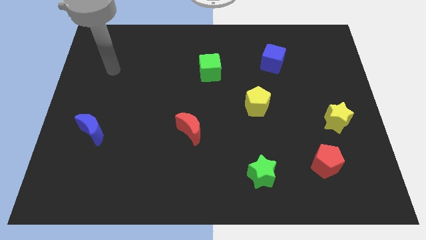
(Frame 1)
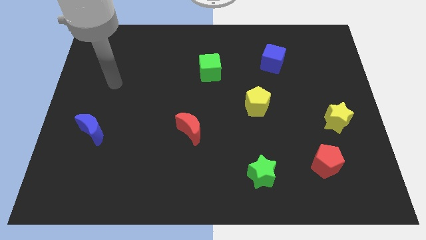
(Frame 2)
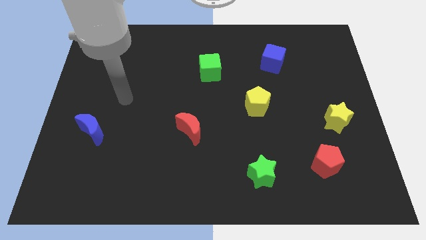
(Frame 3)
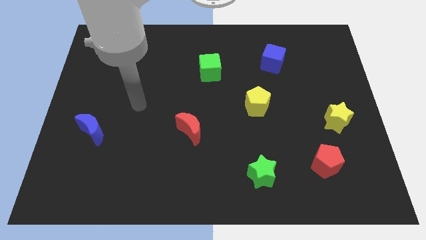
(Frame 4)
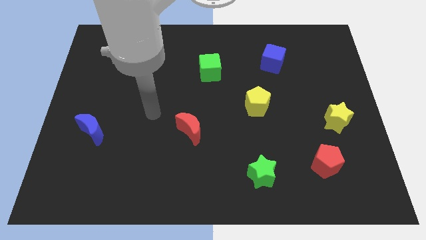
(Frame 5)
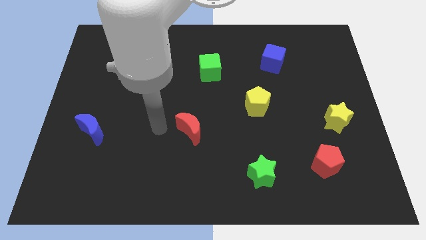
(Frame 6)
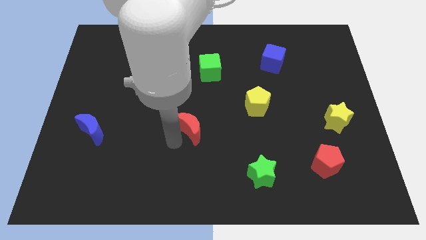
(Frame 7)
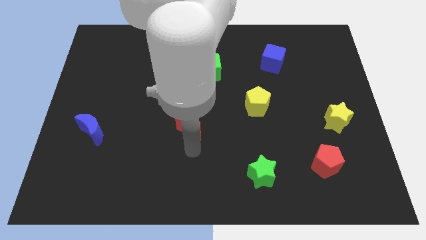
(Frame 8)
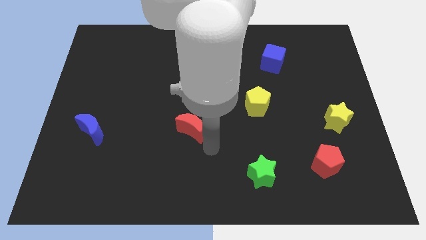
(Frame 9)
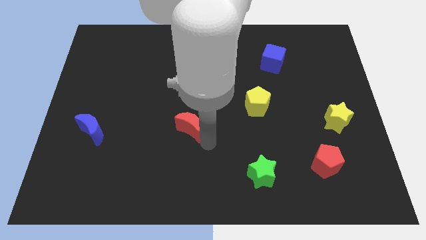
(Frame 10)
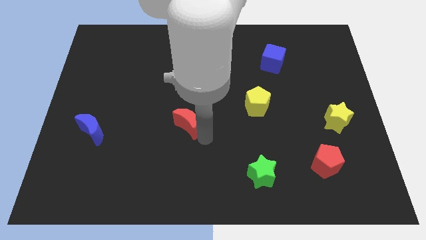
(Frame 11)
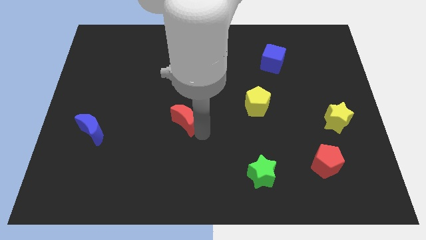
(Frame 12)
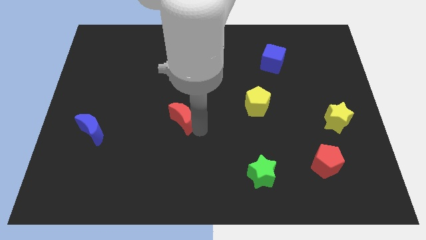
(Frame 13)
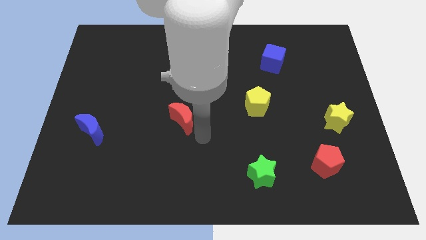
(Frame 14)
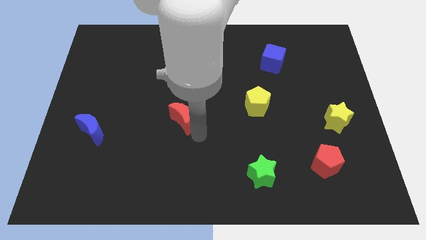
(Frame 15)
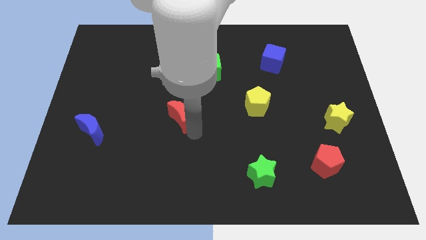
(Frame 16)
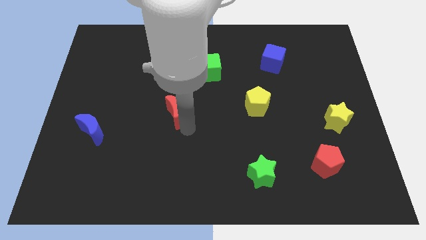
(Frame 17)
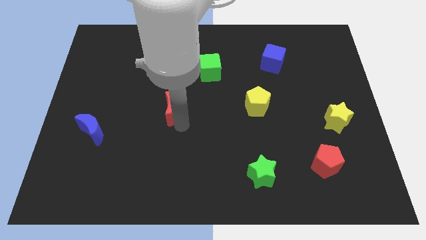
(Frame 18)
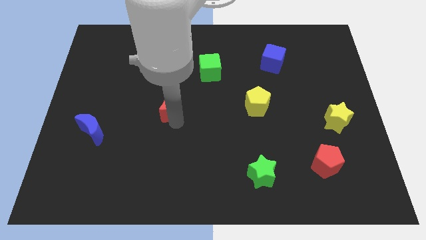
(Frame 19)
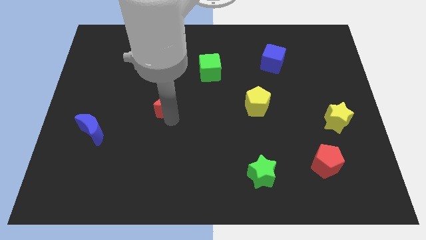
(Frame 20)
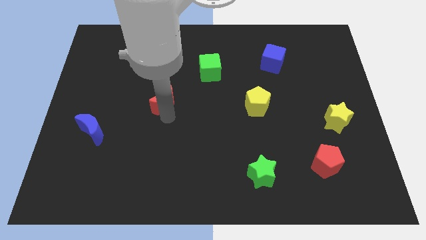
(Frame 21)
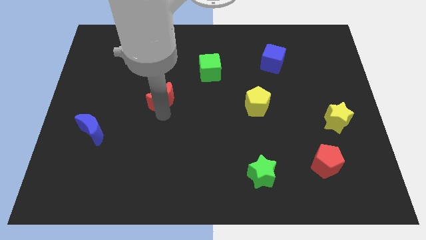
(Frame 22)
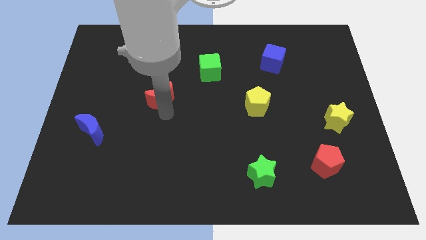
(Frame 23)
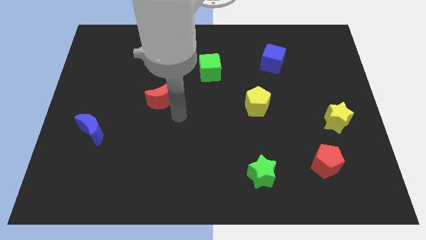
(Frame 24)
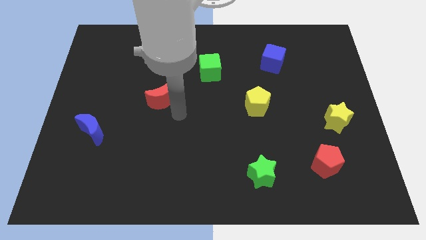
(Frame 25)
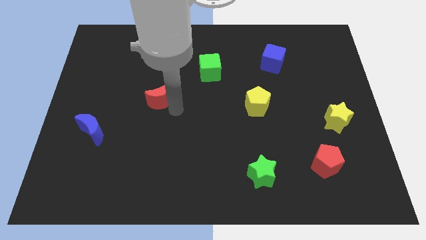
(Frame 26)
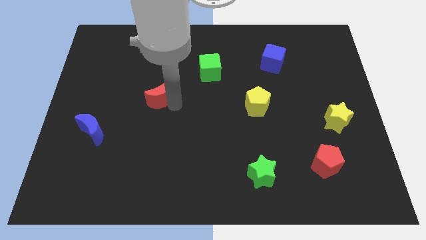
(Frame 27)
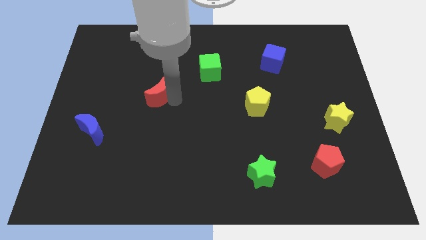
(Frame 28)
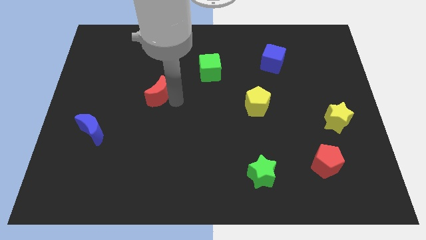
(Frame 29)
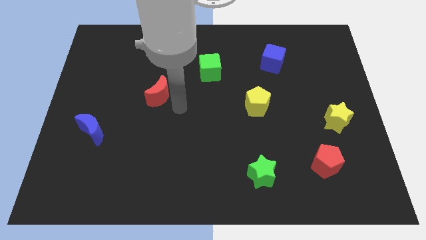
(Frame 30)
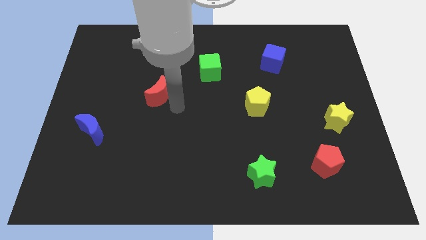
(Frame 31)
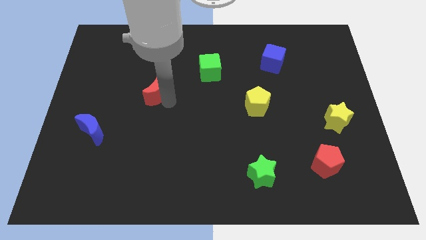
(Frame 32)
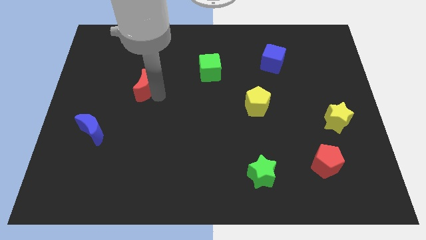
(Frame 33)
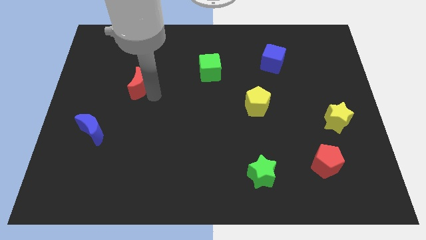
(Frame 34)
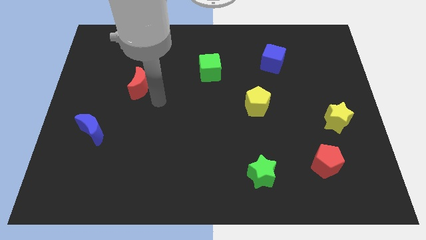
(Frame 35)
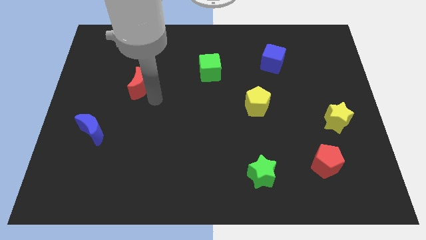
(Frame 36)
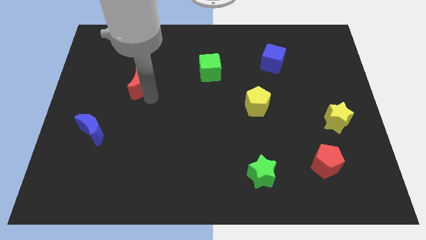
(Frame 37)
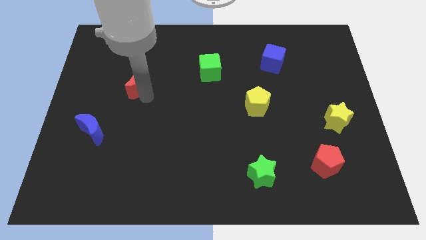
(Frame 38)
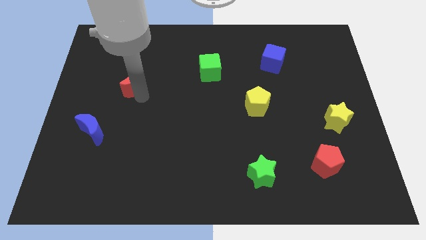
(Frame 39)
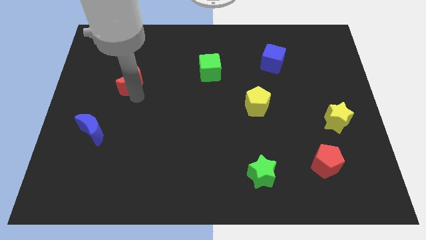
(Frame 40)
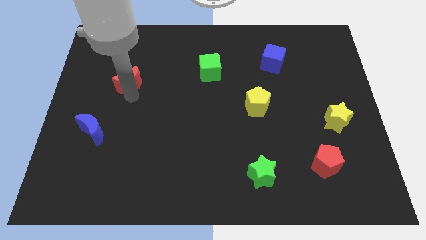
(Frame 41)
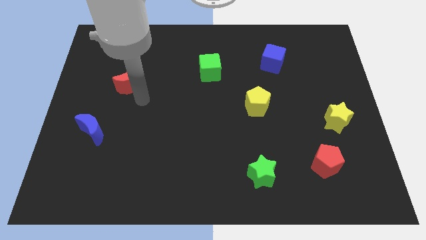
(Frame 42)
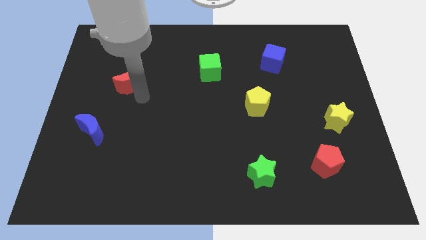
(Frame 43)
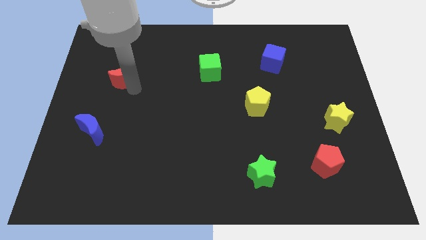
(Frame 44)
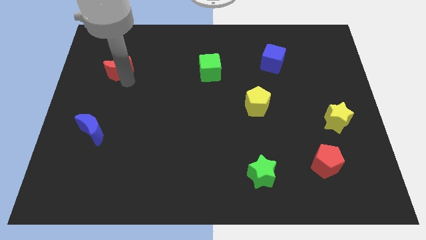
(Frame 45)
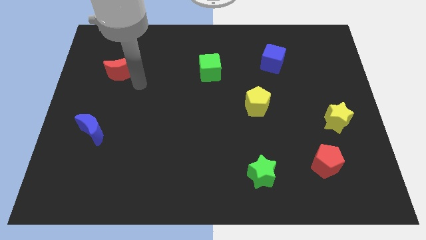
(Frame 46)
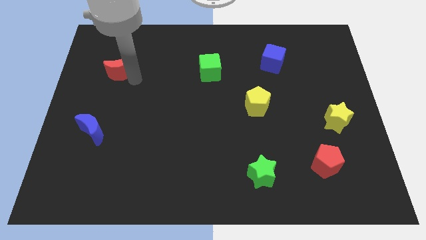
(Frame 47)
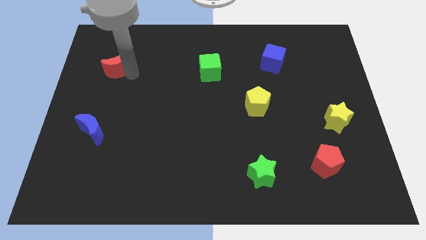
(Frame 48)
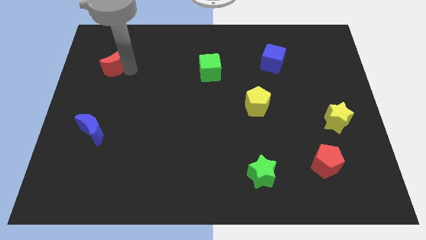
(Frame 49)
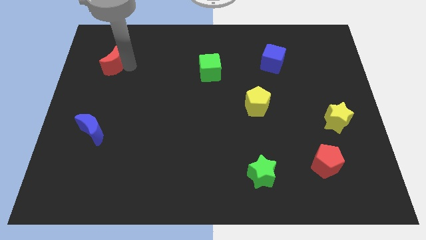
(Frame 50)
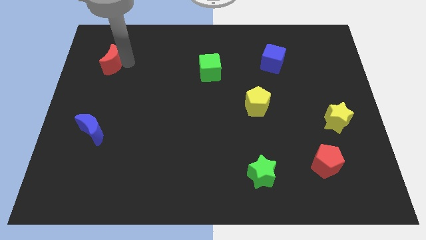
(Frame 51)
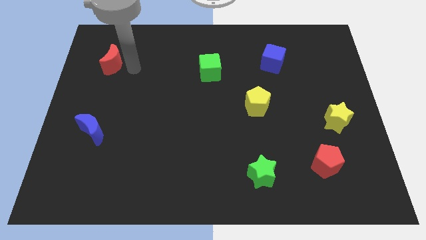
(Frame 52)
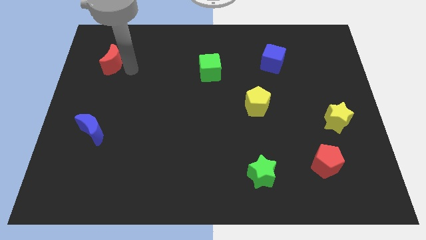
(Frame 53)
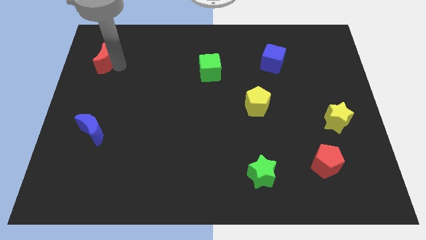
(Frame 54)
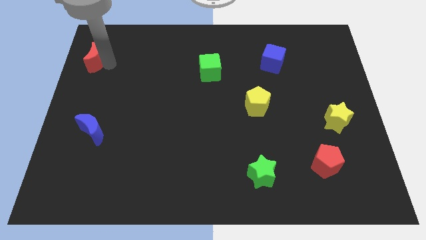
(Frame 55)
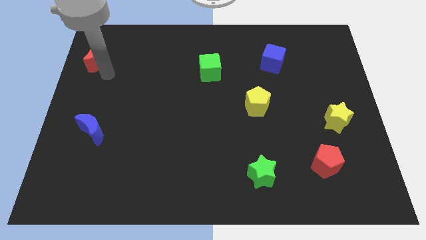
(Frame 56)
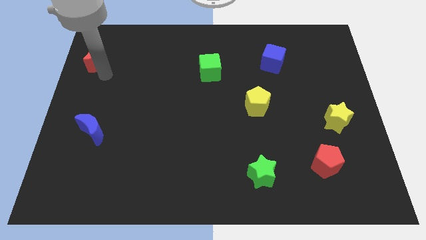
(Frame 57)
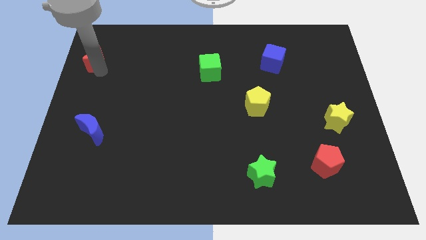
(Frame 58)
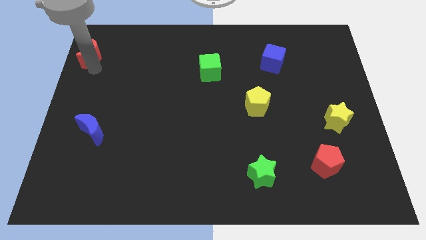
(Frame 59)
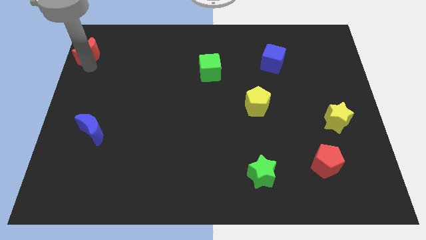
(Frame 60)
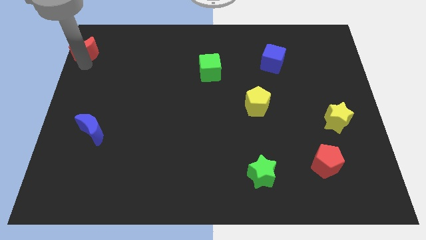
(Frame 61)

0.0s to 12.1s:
push the red moon to the upper left corner

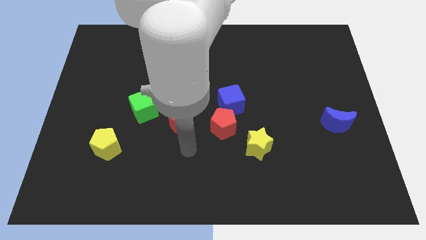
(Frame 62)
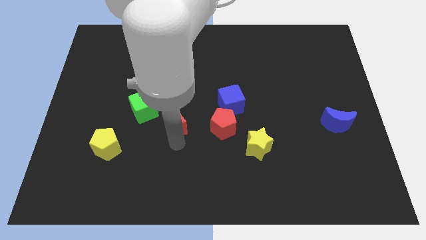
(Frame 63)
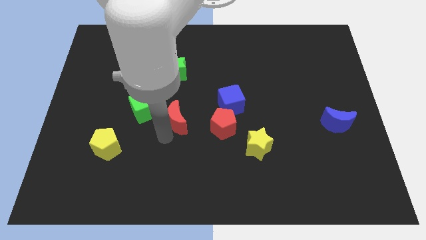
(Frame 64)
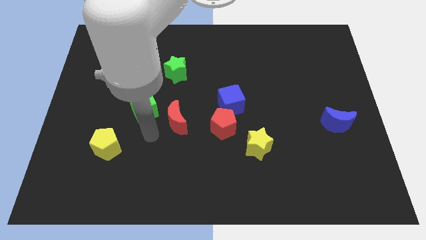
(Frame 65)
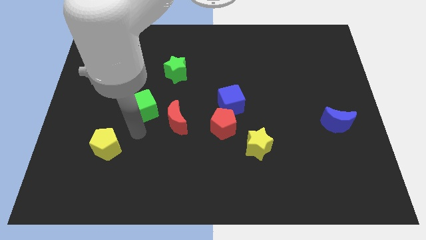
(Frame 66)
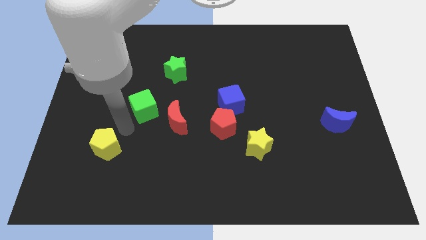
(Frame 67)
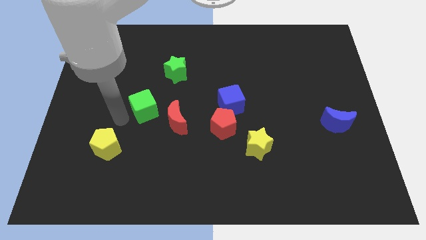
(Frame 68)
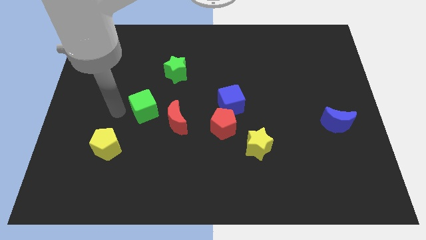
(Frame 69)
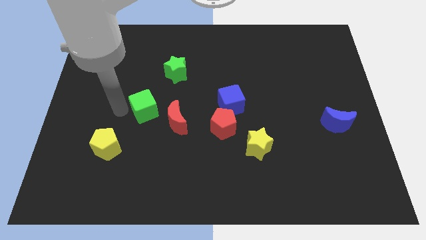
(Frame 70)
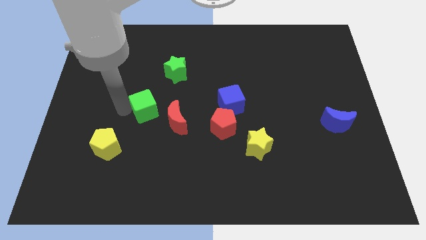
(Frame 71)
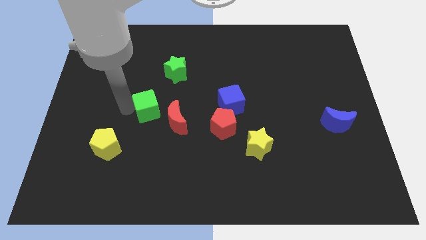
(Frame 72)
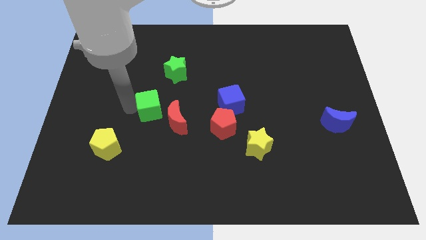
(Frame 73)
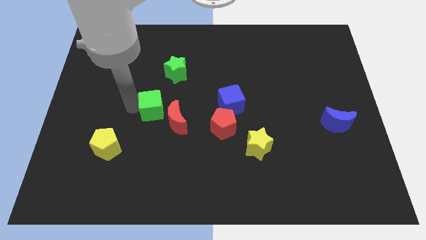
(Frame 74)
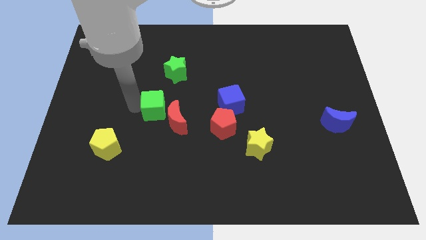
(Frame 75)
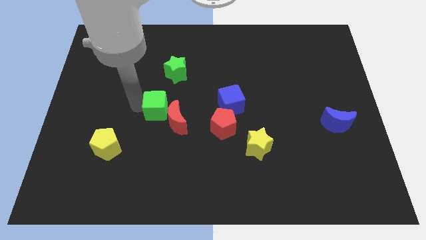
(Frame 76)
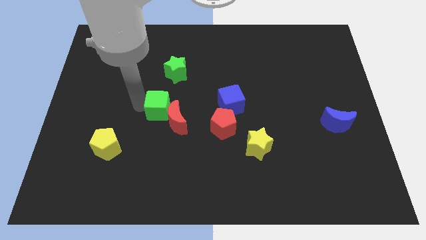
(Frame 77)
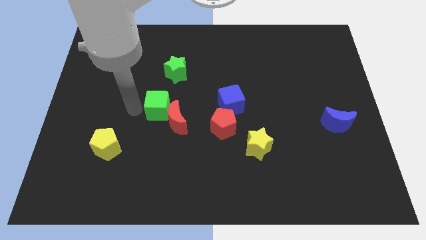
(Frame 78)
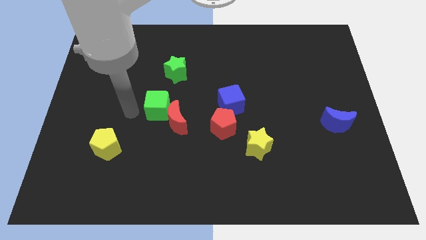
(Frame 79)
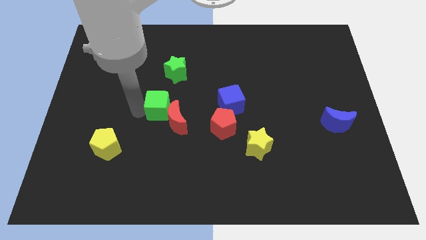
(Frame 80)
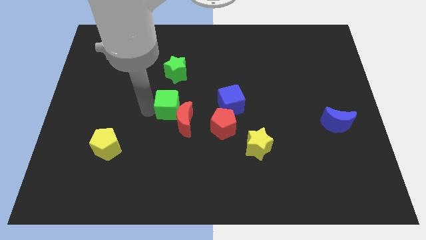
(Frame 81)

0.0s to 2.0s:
slide the green cube to the center of the board
